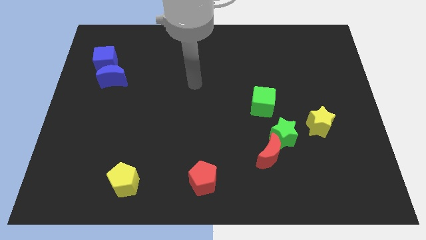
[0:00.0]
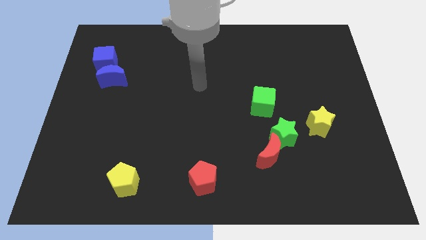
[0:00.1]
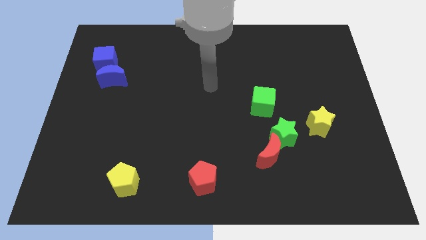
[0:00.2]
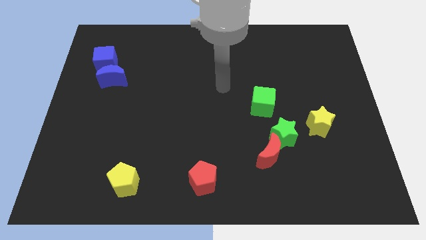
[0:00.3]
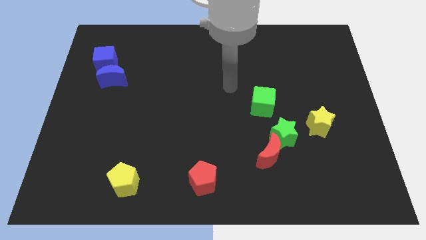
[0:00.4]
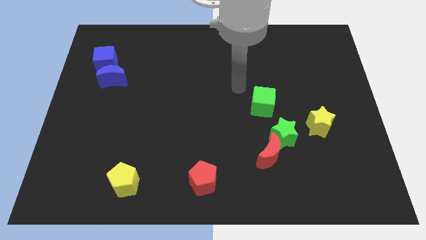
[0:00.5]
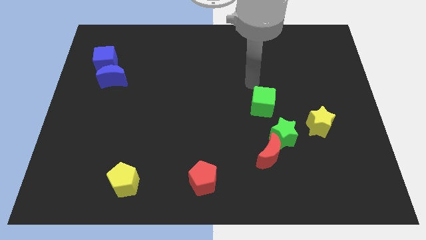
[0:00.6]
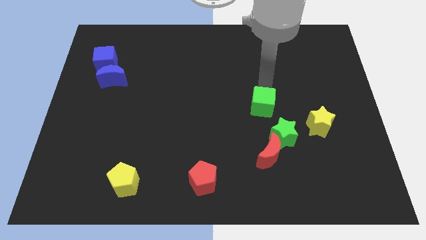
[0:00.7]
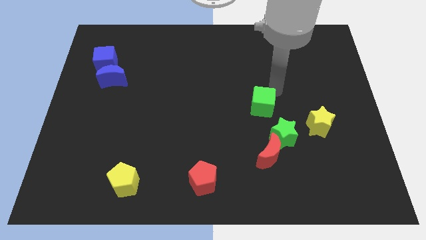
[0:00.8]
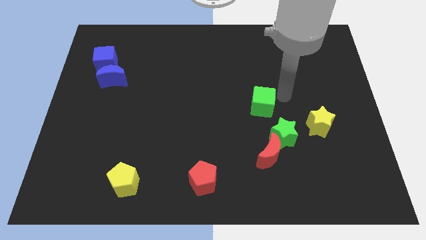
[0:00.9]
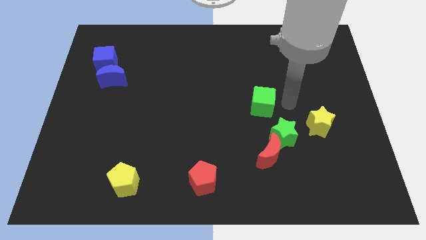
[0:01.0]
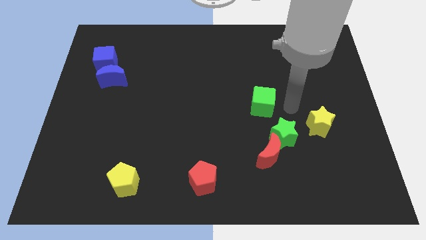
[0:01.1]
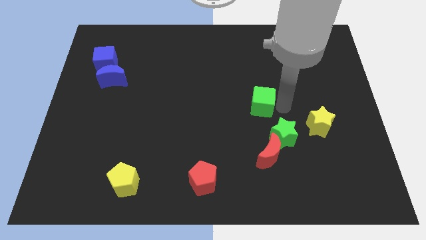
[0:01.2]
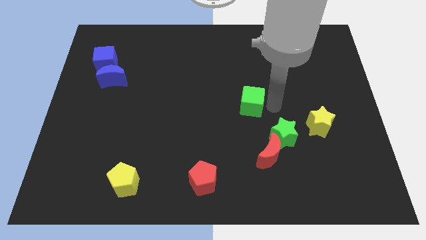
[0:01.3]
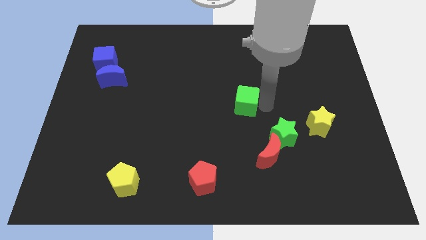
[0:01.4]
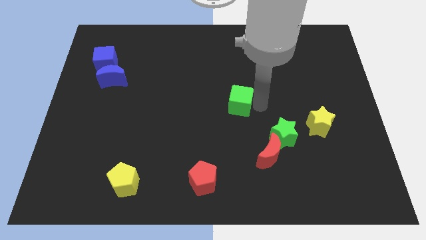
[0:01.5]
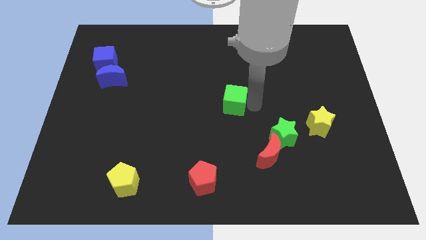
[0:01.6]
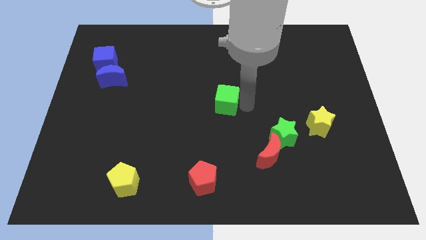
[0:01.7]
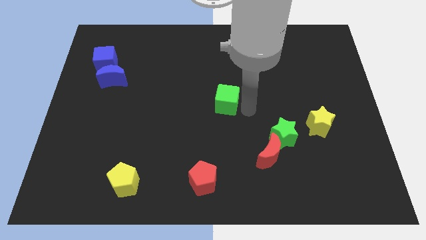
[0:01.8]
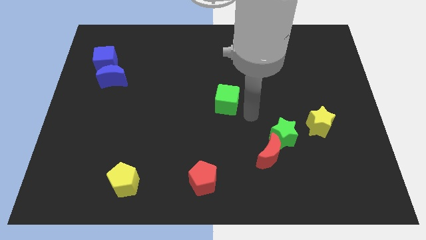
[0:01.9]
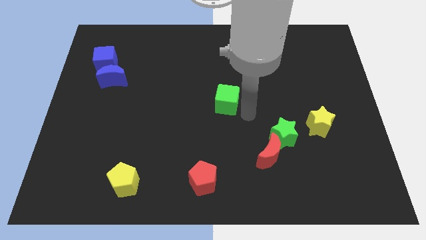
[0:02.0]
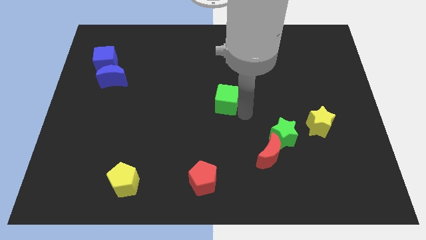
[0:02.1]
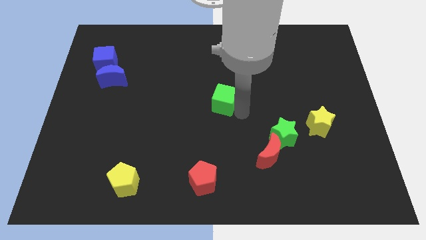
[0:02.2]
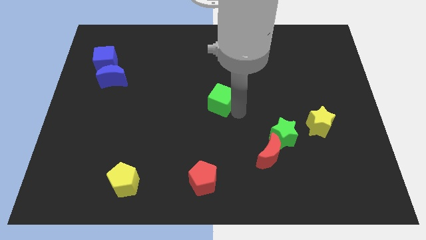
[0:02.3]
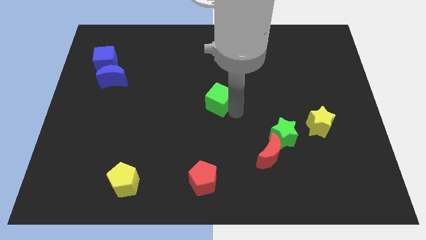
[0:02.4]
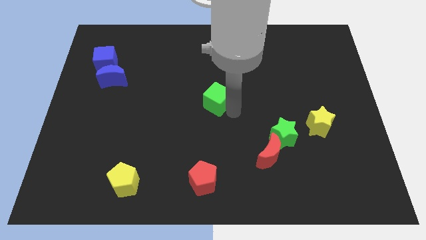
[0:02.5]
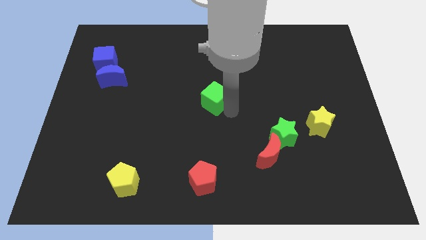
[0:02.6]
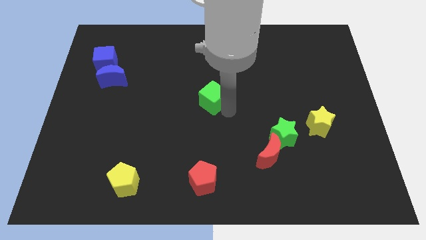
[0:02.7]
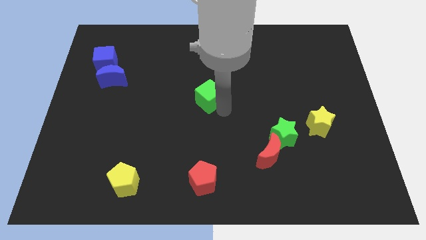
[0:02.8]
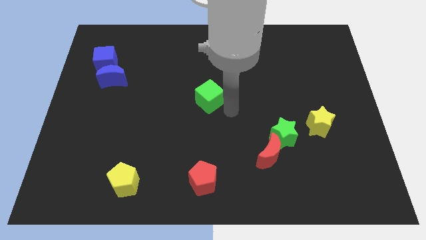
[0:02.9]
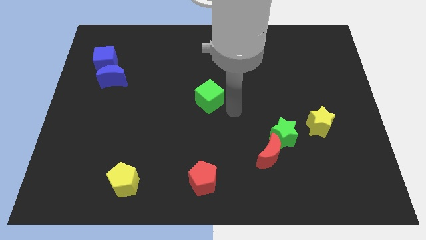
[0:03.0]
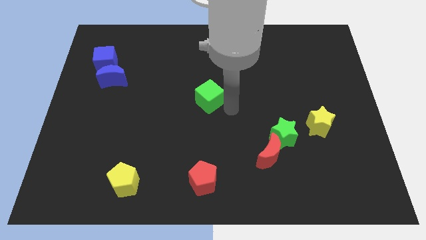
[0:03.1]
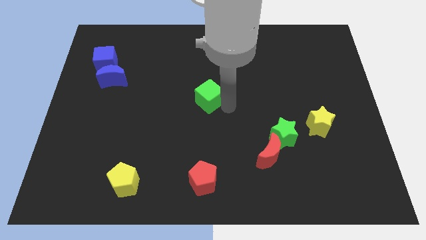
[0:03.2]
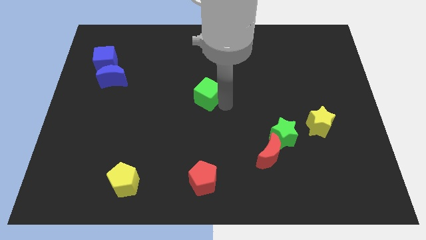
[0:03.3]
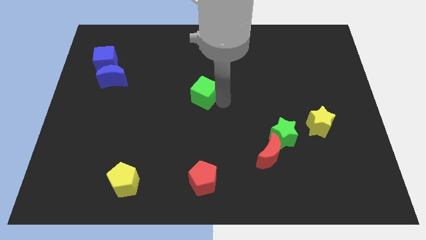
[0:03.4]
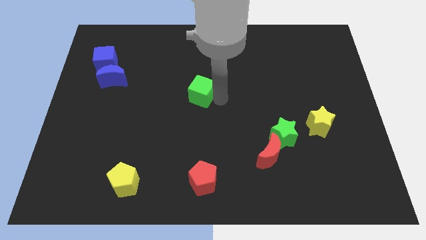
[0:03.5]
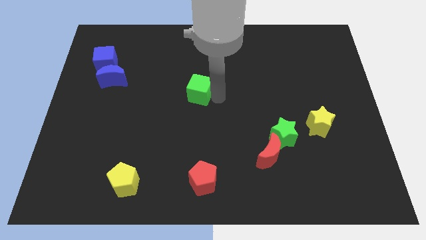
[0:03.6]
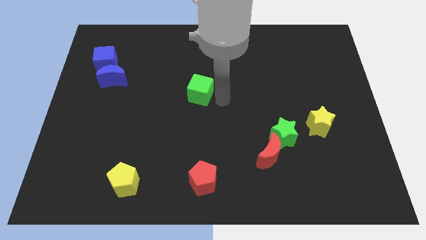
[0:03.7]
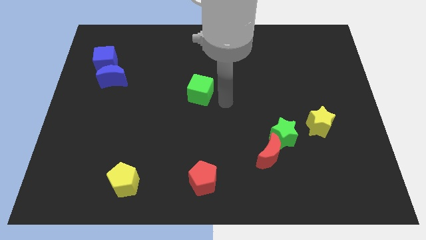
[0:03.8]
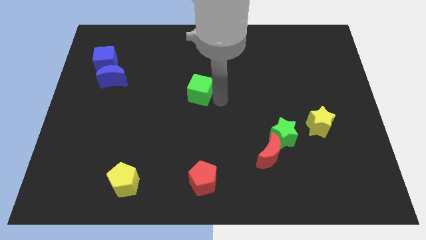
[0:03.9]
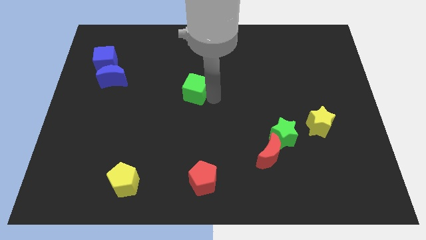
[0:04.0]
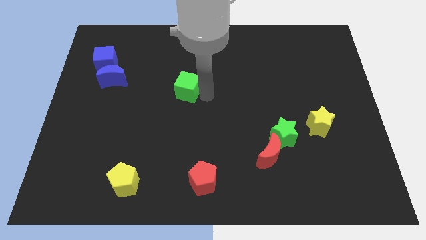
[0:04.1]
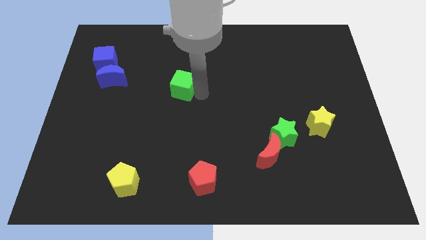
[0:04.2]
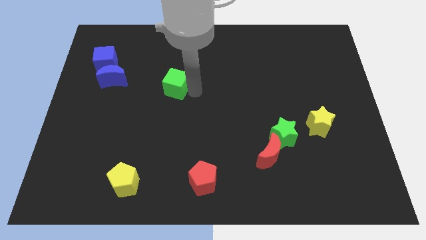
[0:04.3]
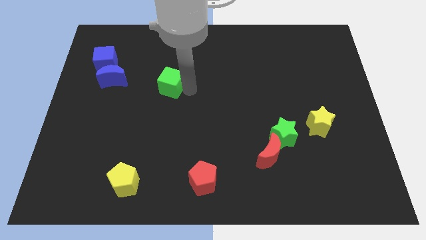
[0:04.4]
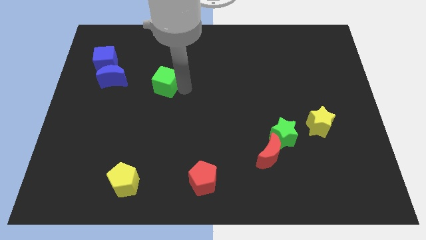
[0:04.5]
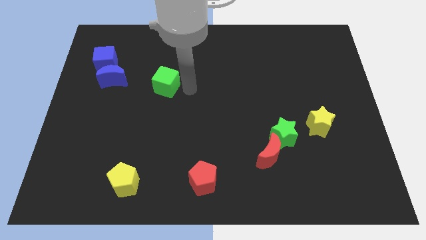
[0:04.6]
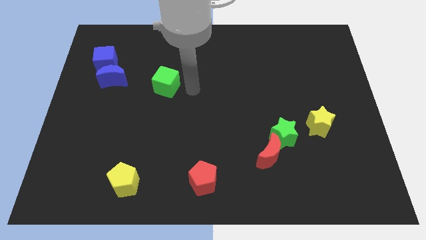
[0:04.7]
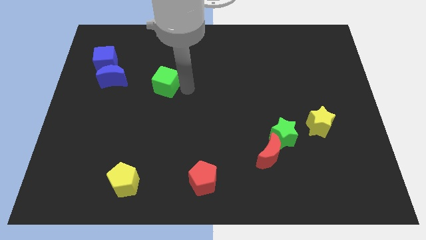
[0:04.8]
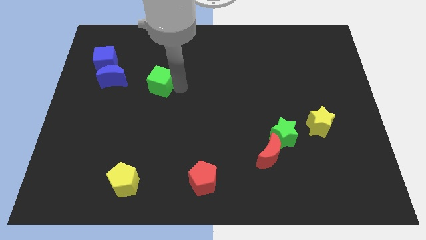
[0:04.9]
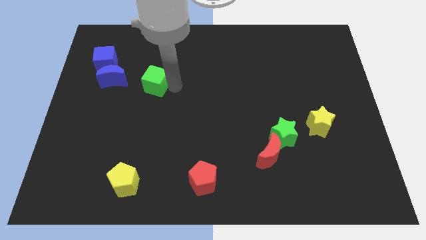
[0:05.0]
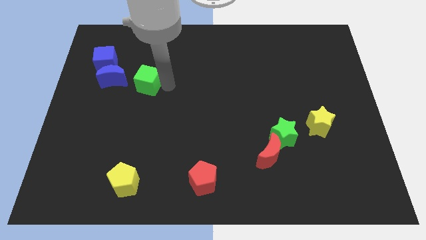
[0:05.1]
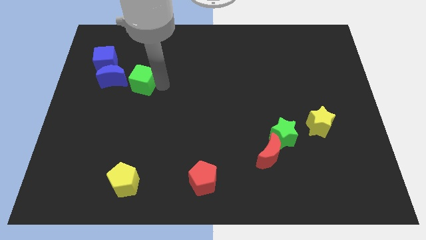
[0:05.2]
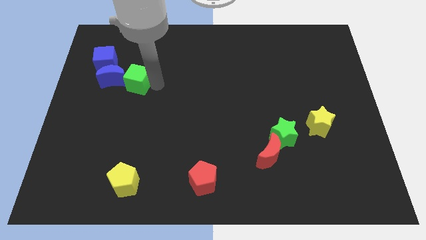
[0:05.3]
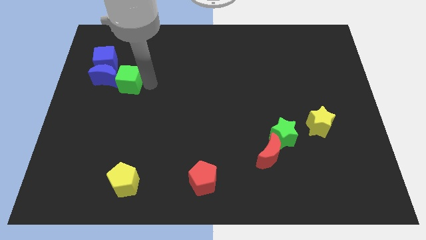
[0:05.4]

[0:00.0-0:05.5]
slide the green cube to the blue moon
